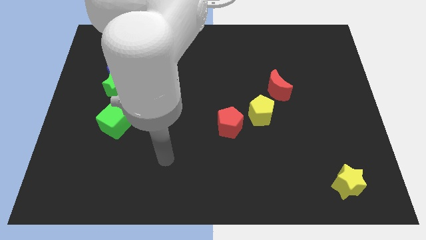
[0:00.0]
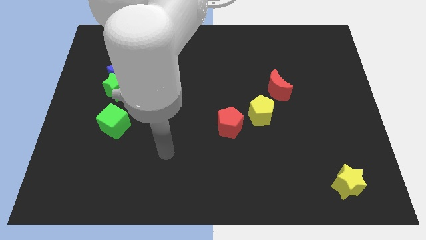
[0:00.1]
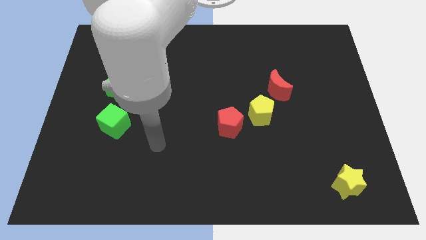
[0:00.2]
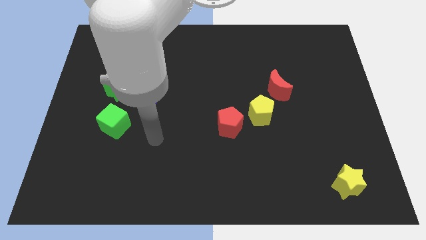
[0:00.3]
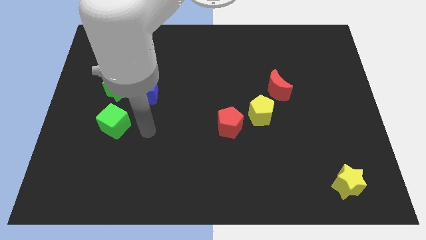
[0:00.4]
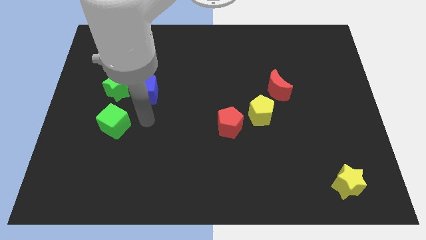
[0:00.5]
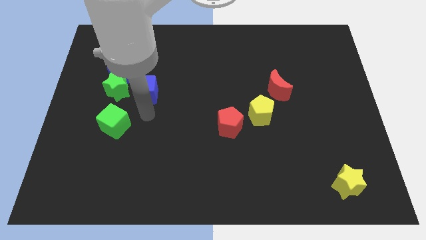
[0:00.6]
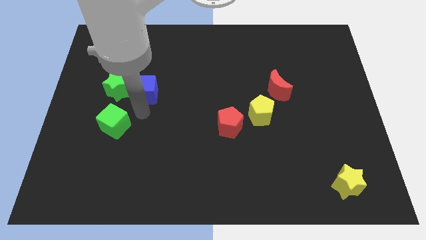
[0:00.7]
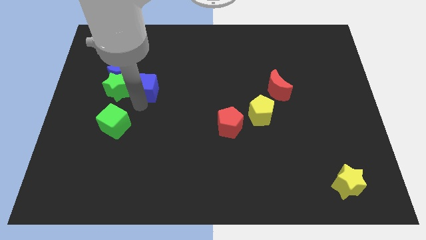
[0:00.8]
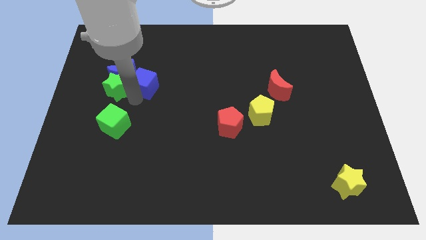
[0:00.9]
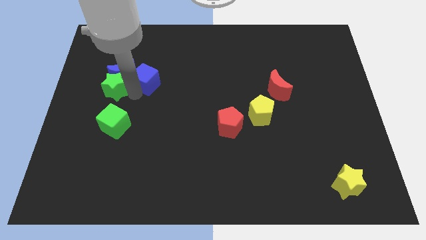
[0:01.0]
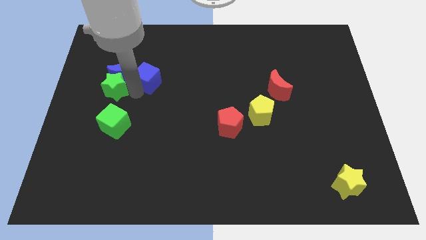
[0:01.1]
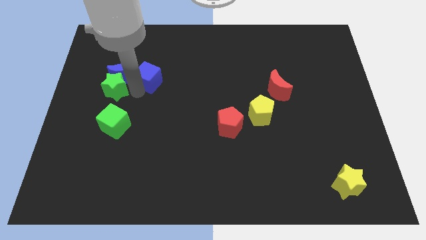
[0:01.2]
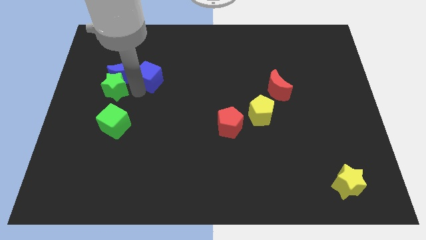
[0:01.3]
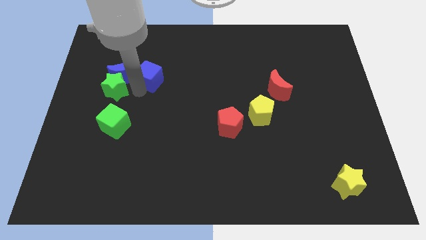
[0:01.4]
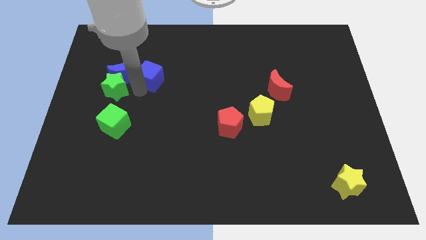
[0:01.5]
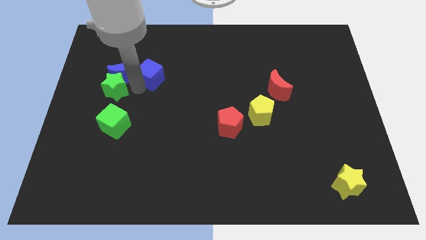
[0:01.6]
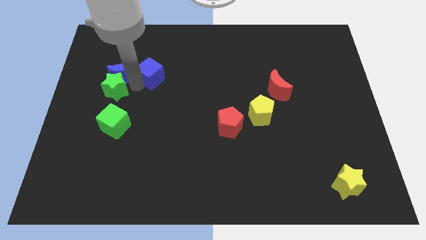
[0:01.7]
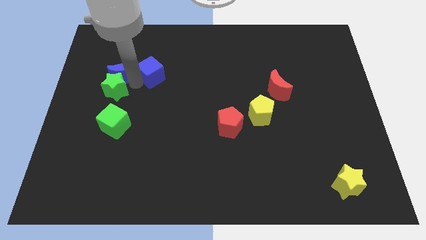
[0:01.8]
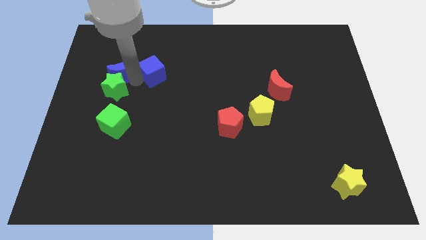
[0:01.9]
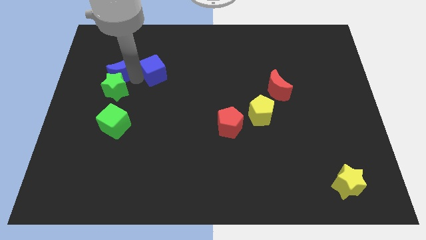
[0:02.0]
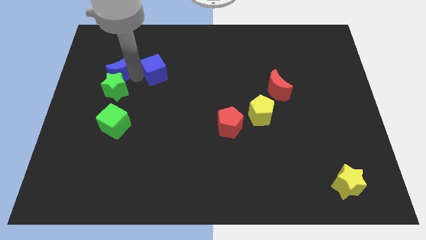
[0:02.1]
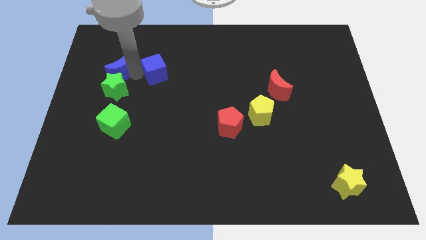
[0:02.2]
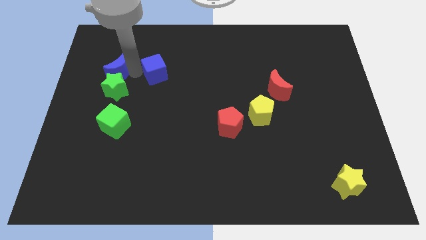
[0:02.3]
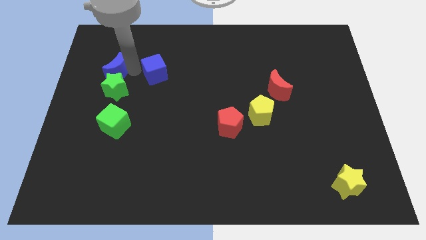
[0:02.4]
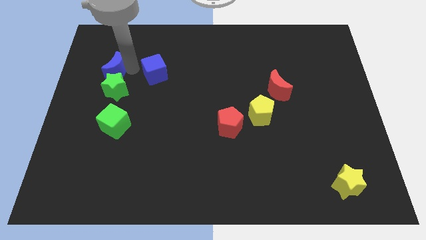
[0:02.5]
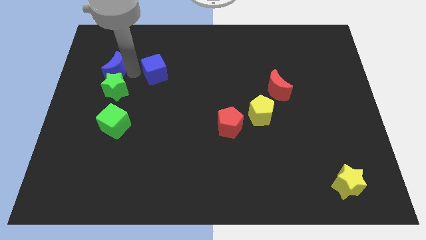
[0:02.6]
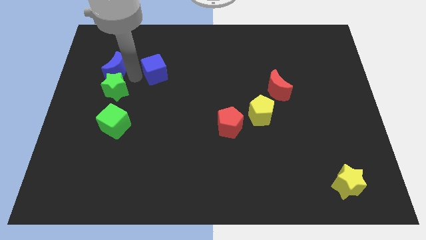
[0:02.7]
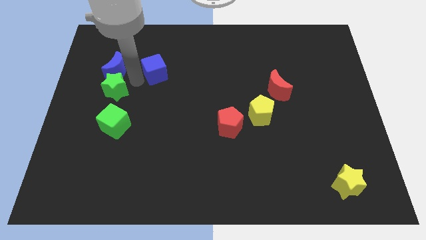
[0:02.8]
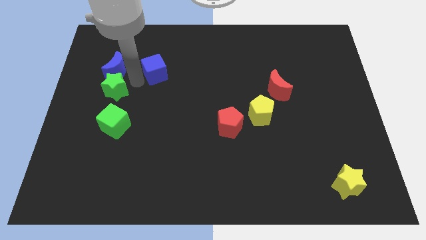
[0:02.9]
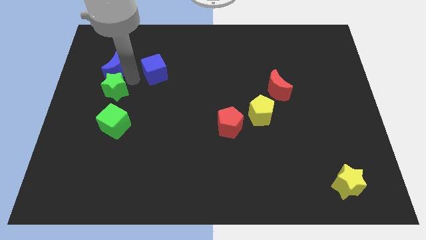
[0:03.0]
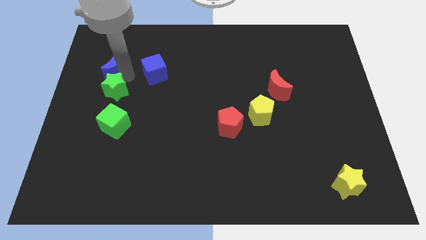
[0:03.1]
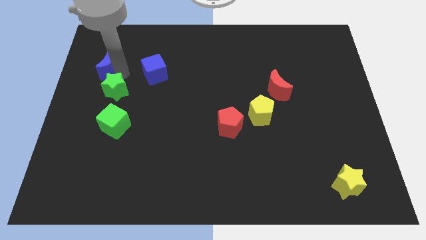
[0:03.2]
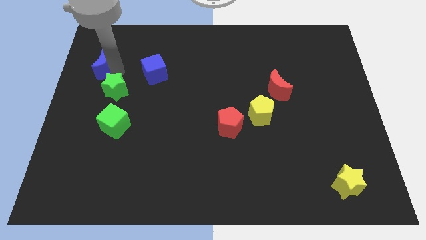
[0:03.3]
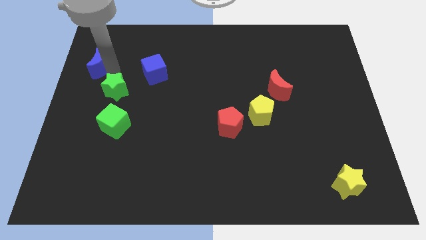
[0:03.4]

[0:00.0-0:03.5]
separate the blue moon from the green star and blue cube

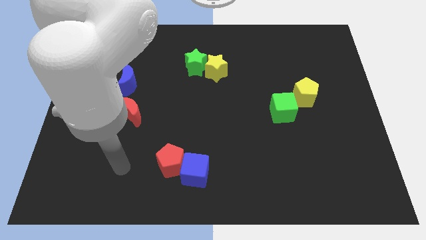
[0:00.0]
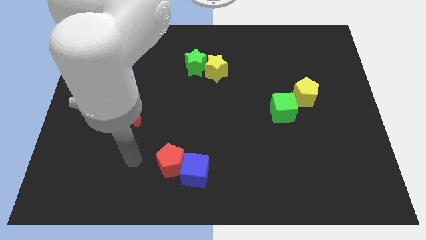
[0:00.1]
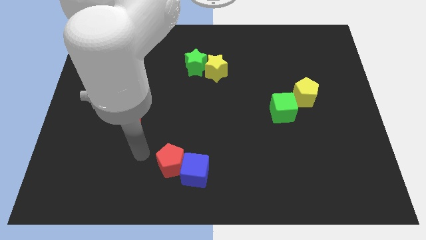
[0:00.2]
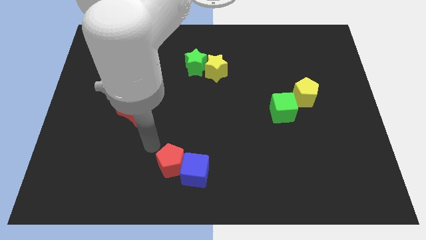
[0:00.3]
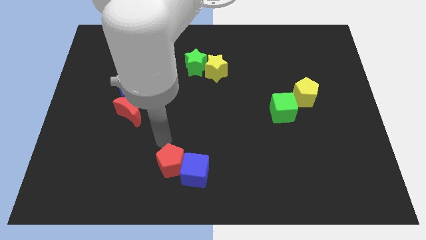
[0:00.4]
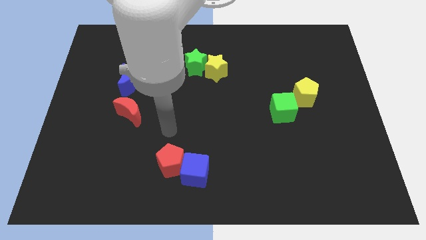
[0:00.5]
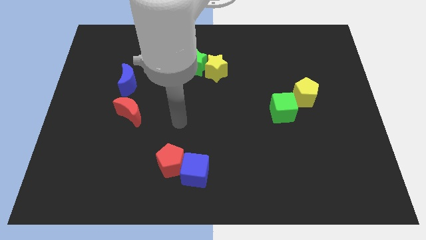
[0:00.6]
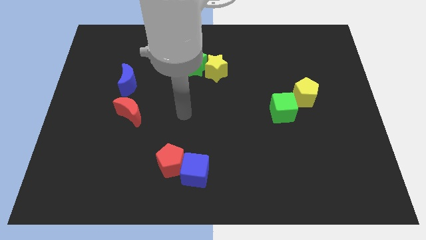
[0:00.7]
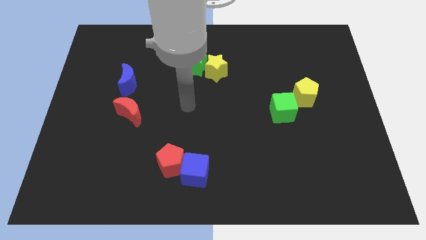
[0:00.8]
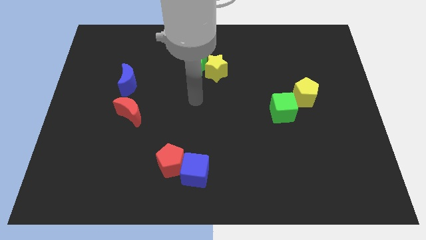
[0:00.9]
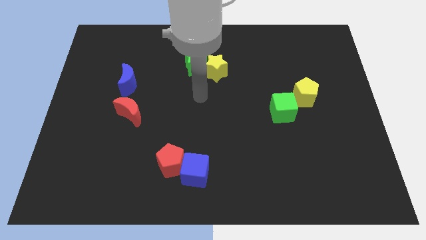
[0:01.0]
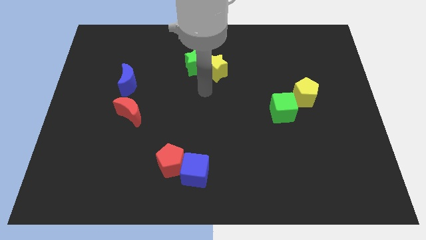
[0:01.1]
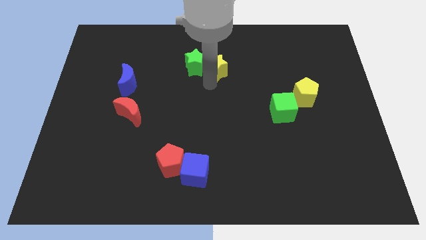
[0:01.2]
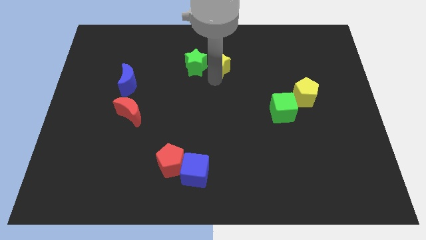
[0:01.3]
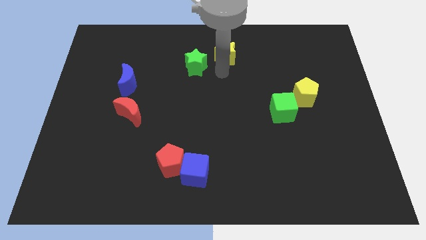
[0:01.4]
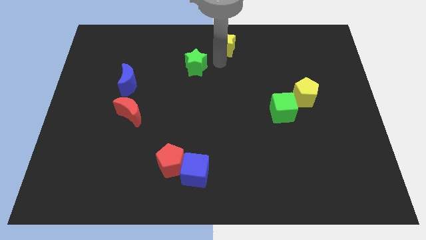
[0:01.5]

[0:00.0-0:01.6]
pull the green star apart from the yellow star

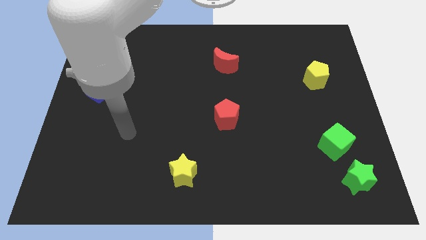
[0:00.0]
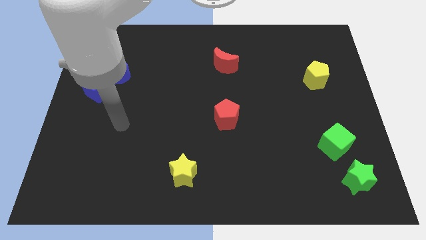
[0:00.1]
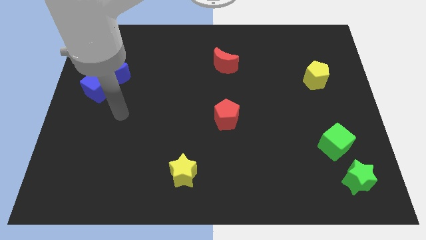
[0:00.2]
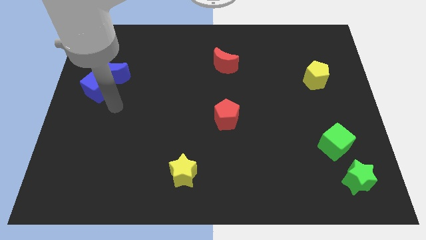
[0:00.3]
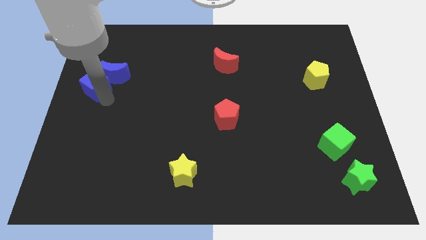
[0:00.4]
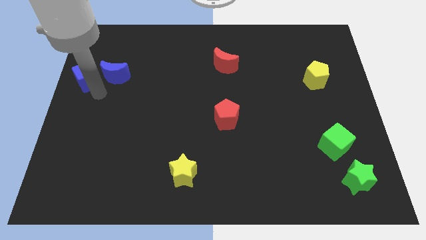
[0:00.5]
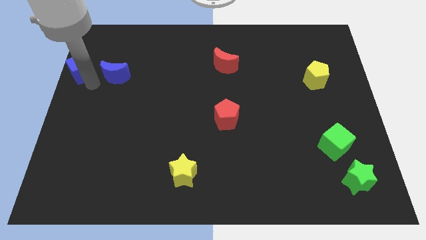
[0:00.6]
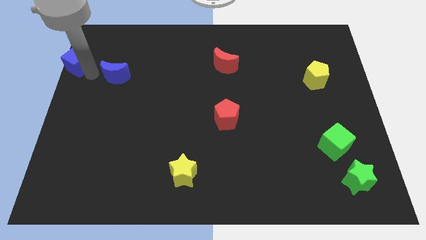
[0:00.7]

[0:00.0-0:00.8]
separate the blue moon from the blue cube

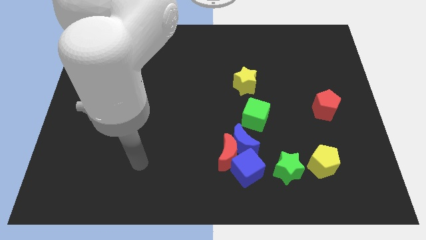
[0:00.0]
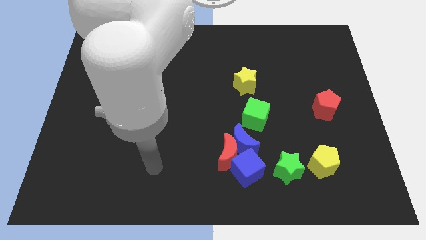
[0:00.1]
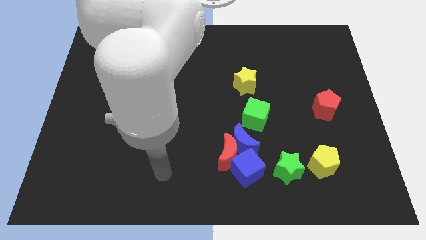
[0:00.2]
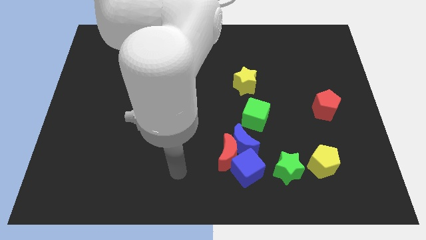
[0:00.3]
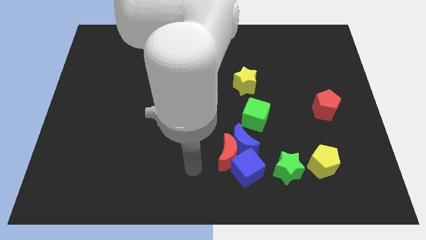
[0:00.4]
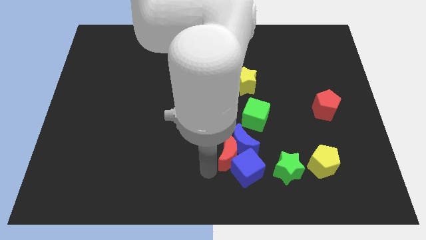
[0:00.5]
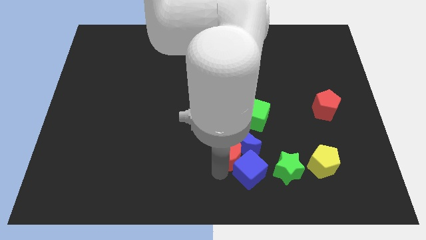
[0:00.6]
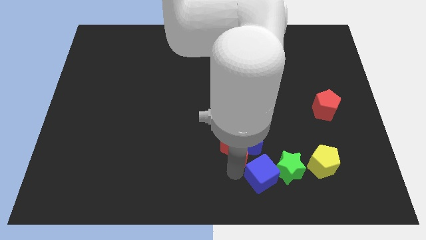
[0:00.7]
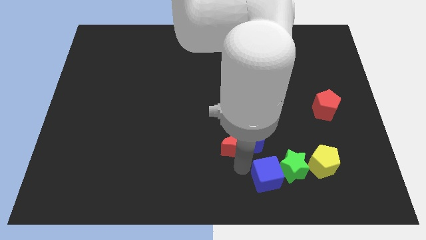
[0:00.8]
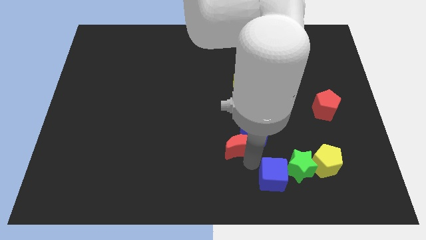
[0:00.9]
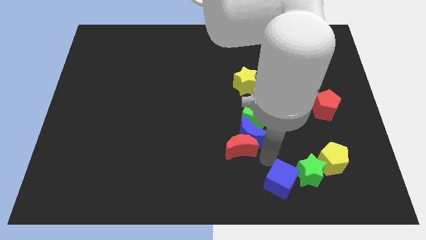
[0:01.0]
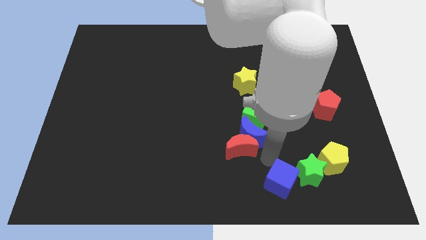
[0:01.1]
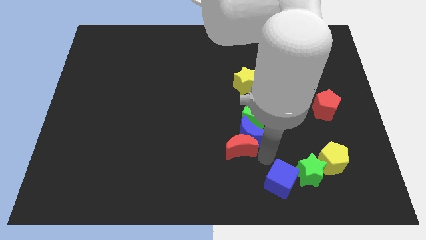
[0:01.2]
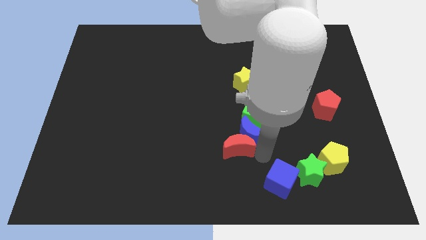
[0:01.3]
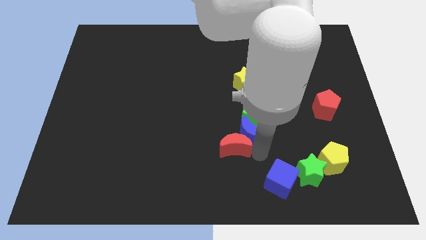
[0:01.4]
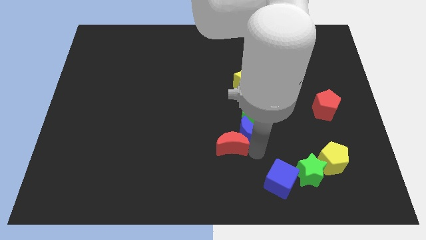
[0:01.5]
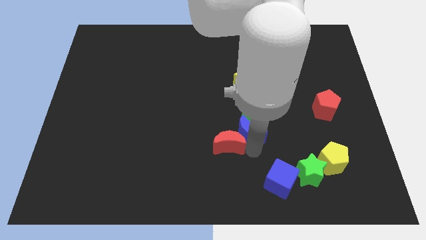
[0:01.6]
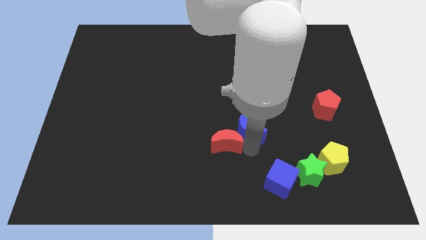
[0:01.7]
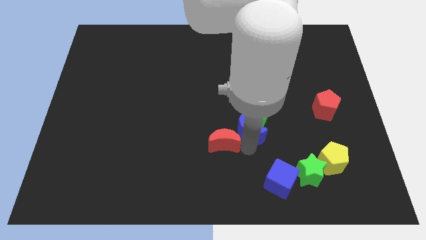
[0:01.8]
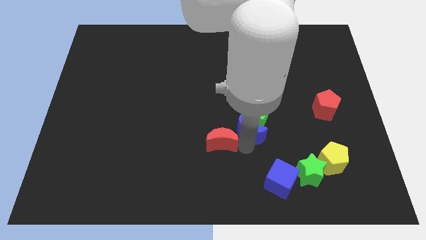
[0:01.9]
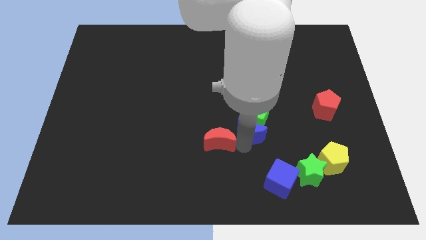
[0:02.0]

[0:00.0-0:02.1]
separate the red moon from the blue moon and blue cube

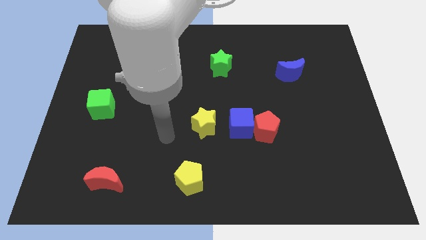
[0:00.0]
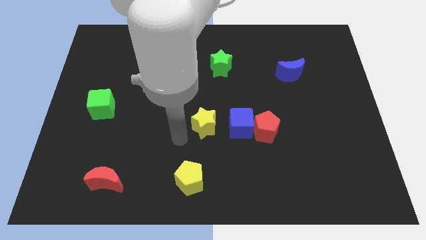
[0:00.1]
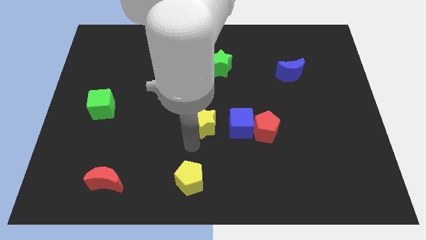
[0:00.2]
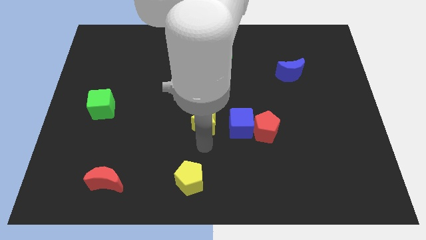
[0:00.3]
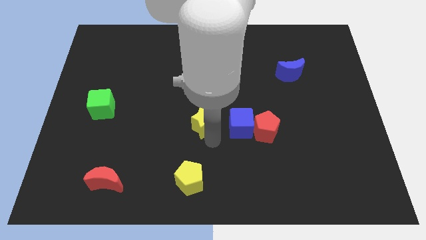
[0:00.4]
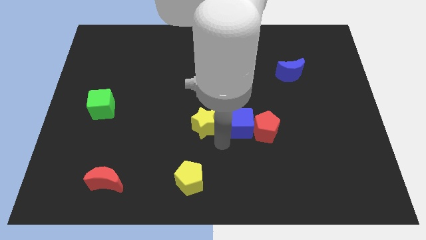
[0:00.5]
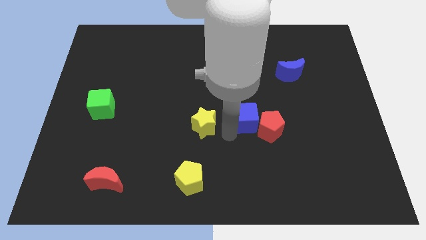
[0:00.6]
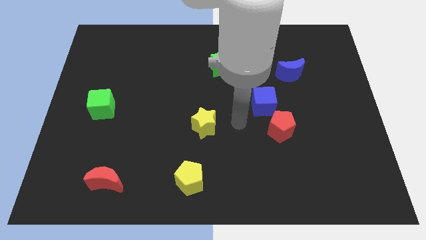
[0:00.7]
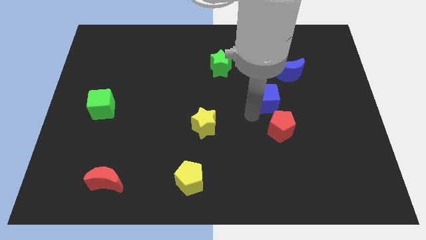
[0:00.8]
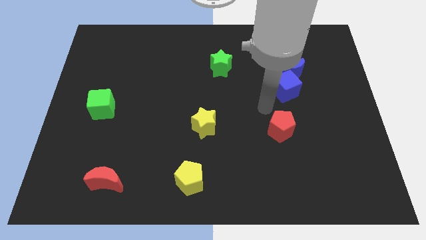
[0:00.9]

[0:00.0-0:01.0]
separate the red pentagon from the blue cube

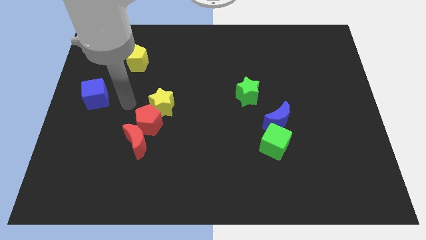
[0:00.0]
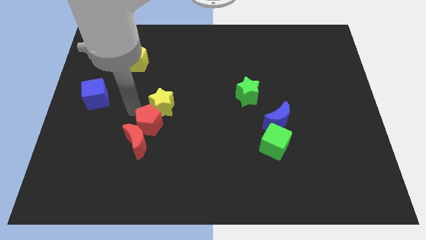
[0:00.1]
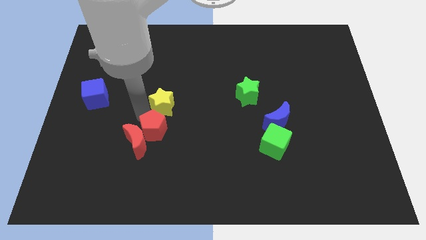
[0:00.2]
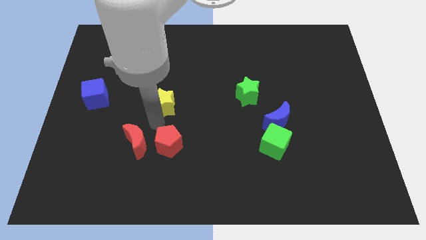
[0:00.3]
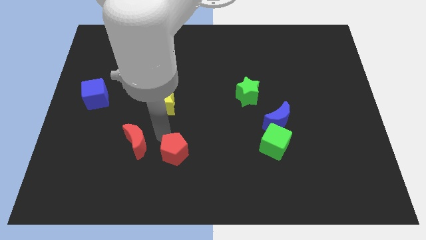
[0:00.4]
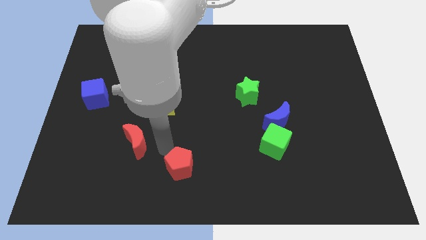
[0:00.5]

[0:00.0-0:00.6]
pull the red moon apart from the red pentagon
